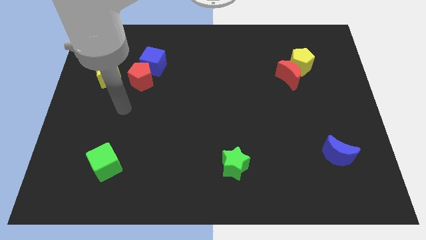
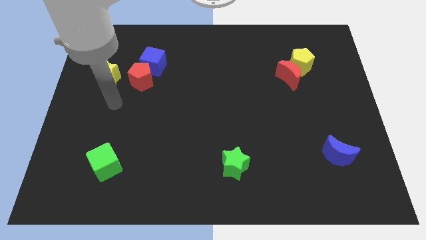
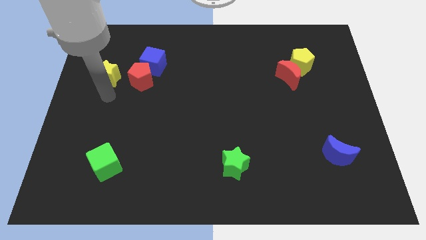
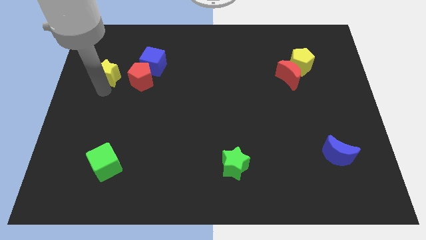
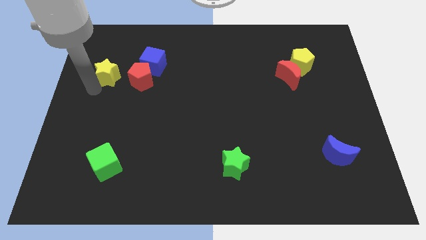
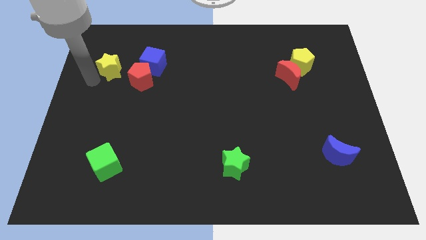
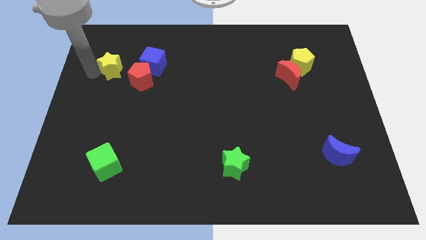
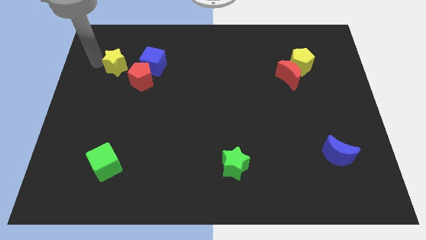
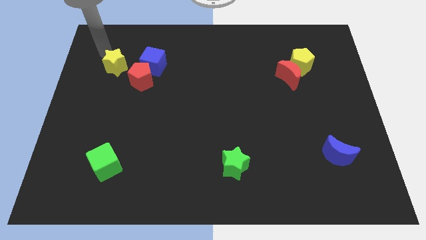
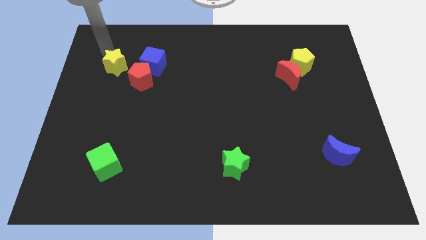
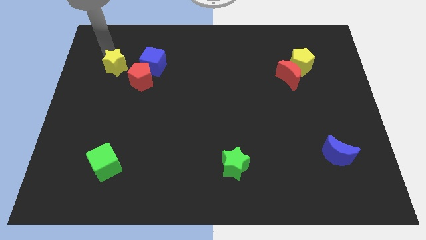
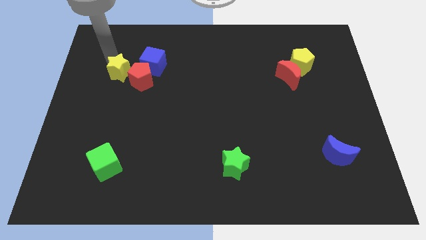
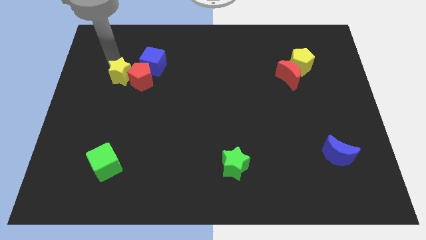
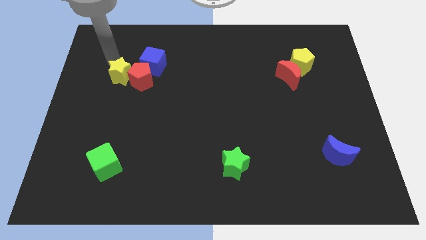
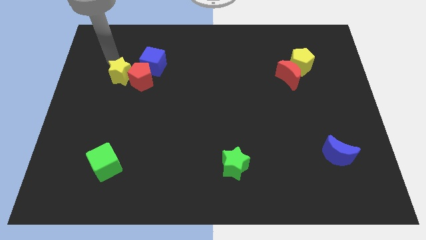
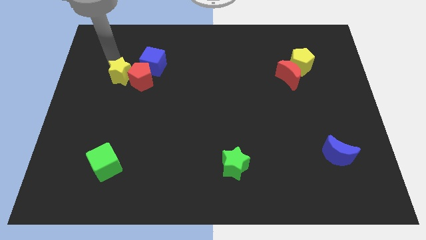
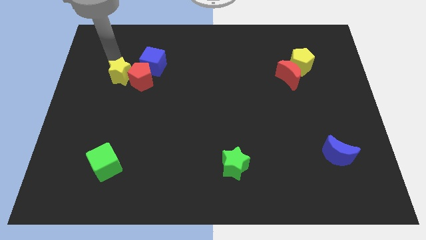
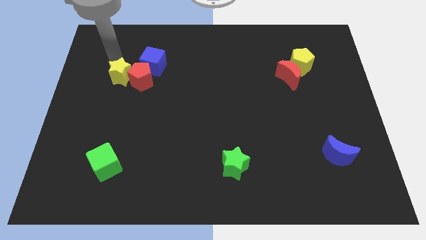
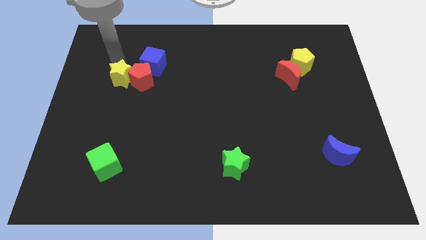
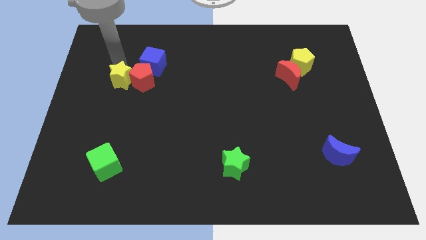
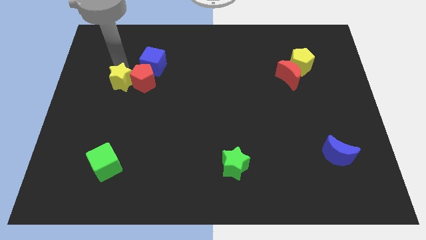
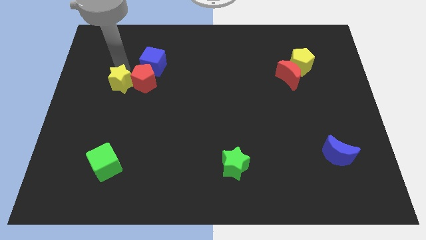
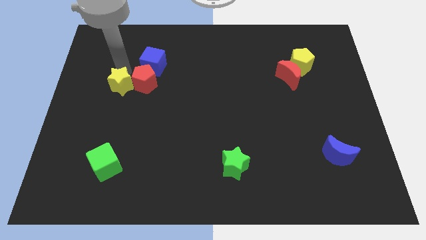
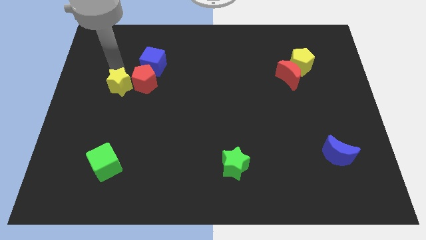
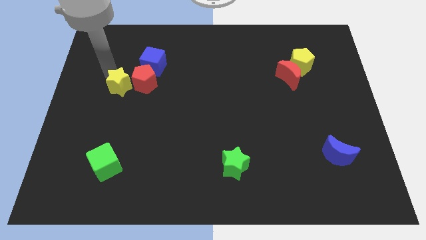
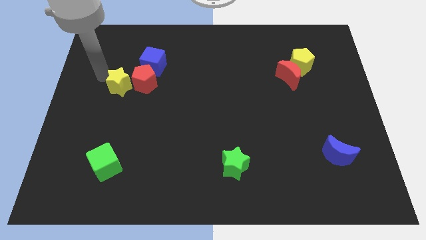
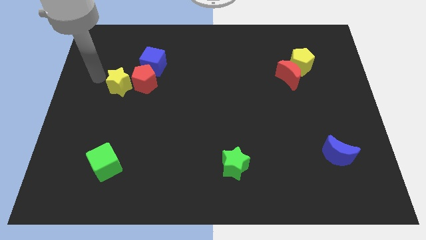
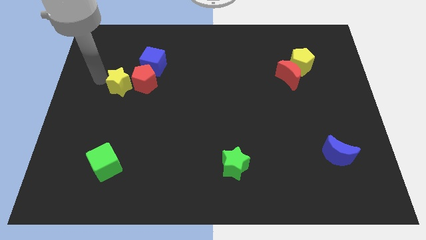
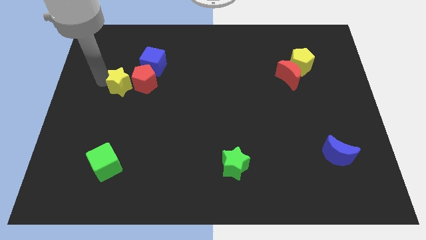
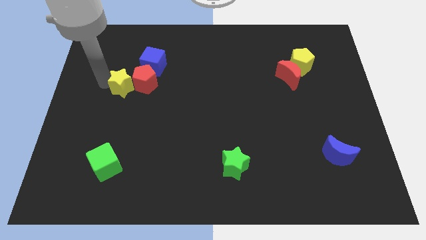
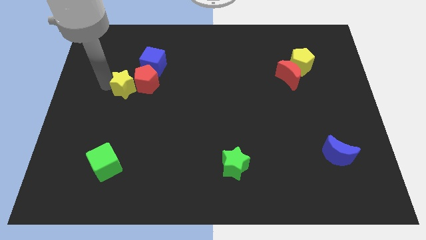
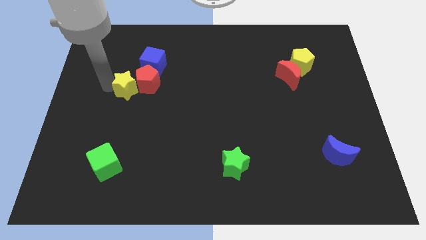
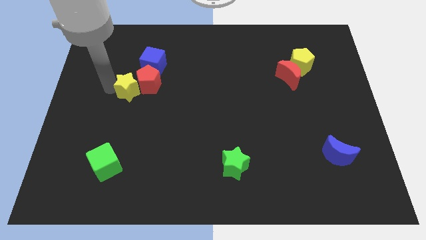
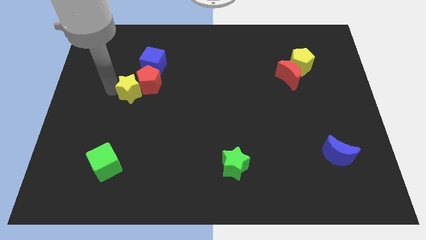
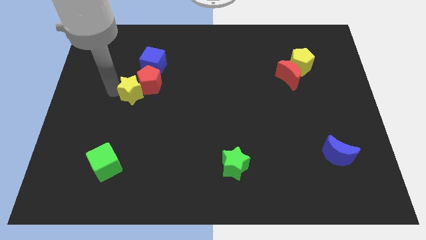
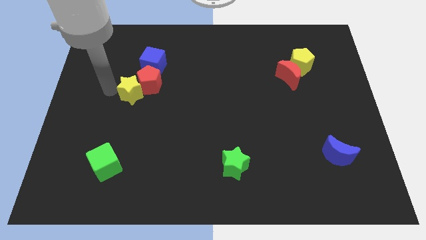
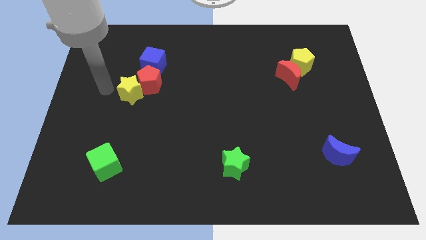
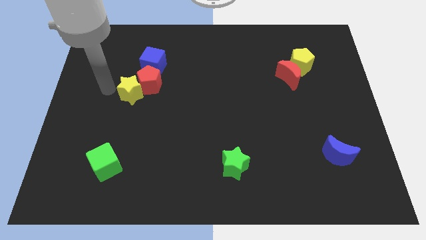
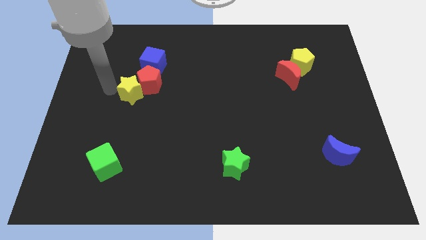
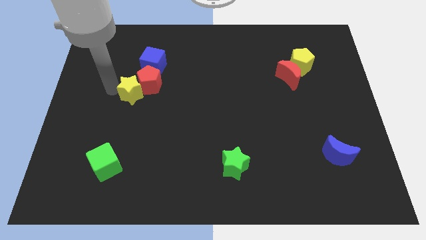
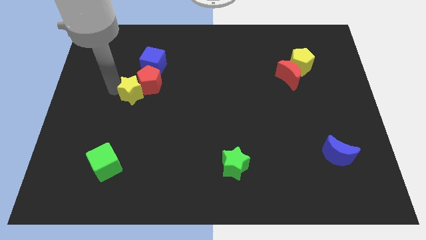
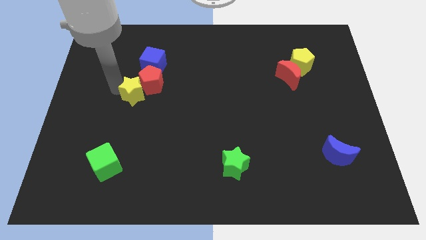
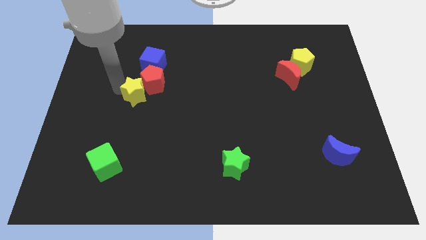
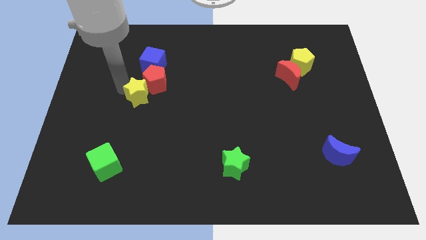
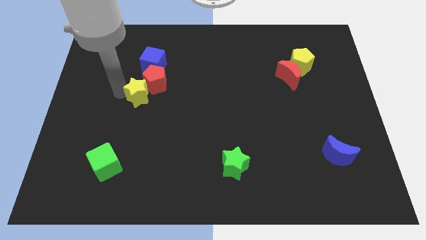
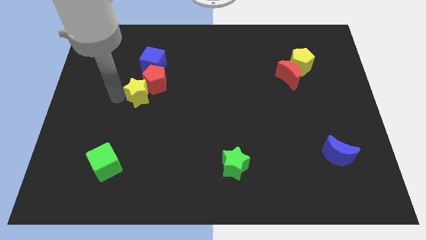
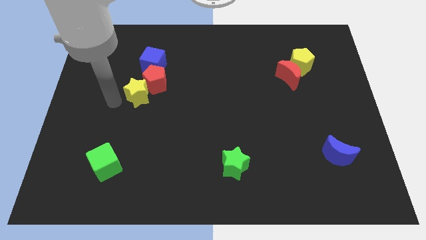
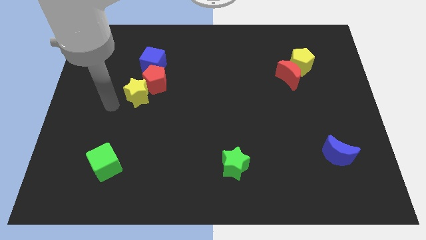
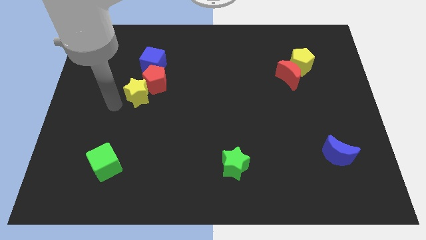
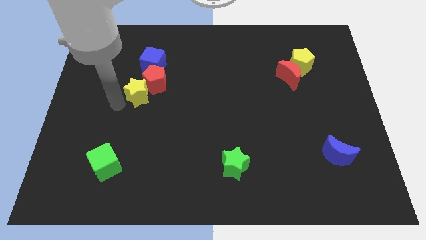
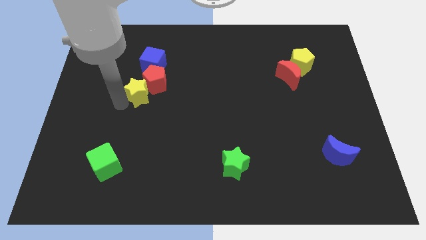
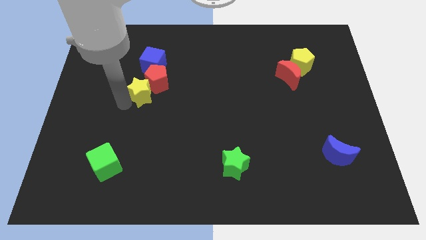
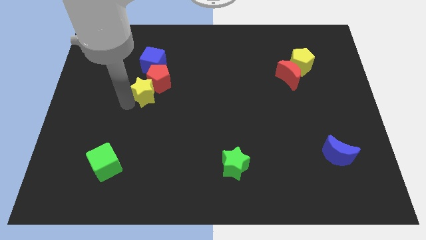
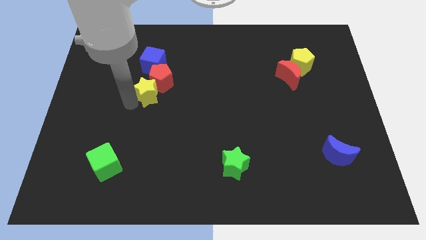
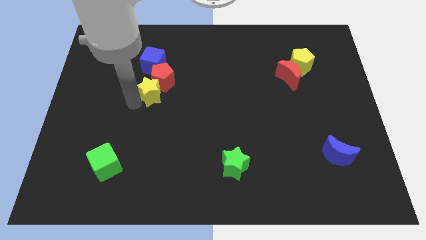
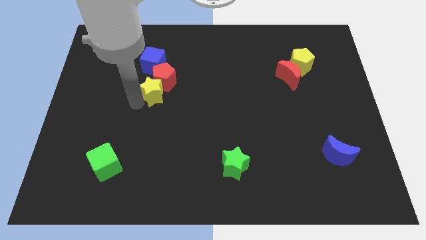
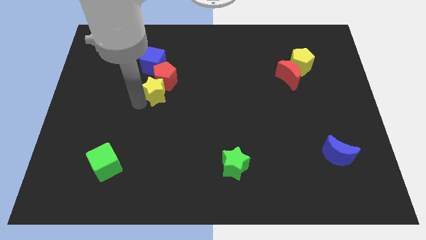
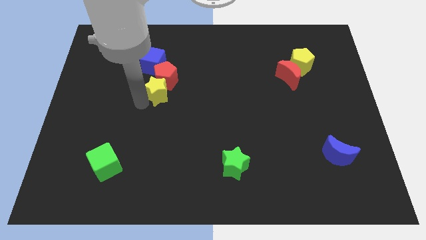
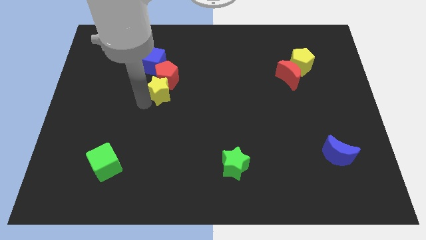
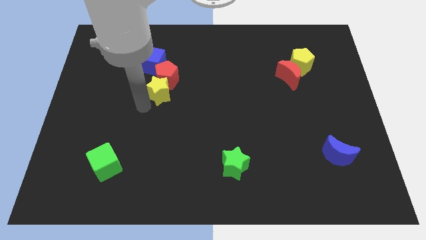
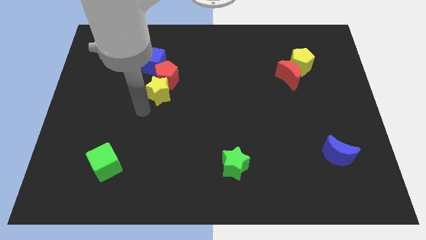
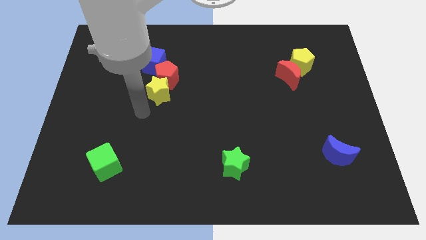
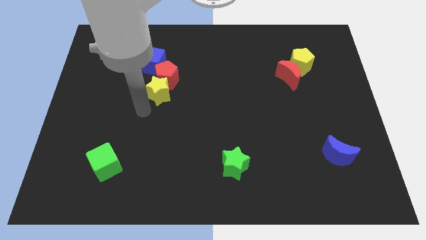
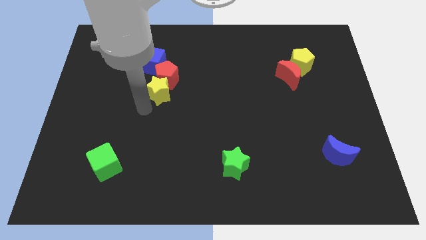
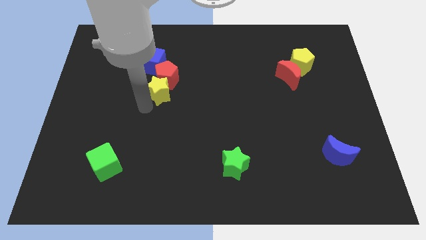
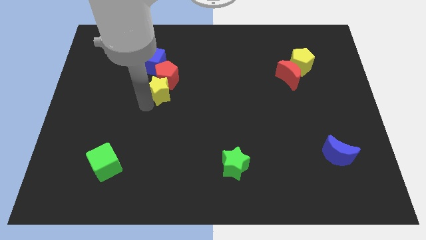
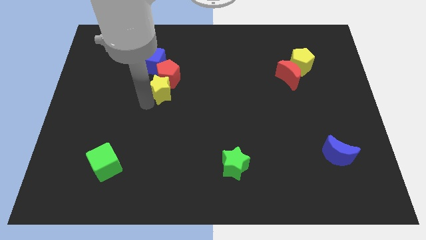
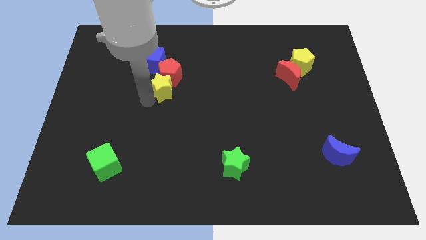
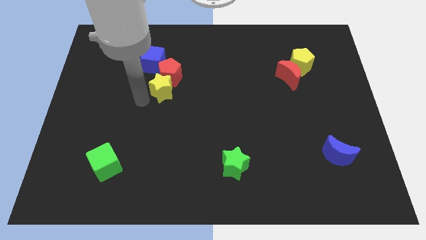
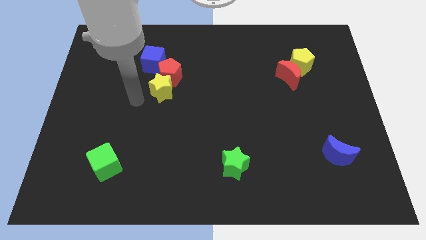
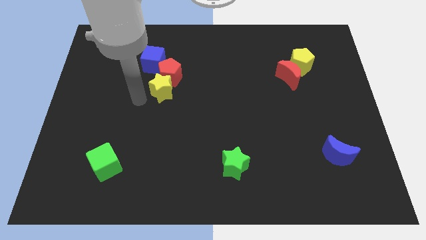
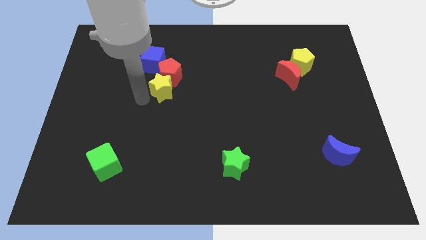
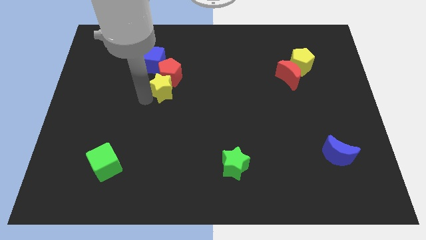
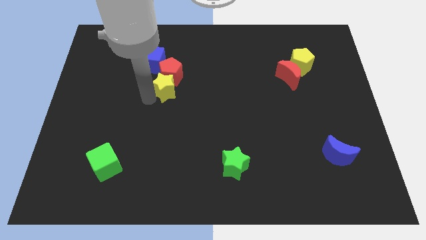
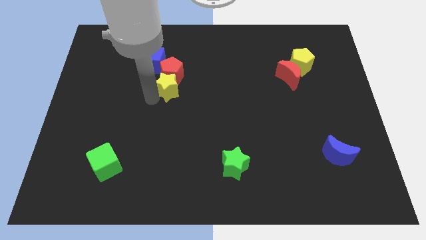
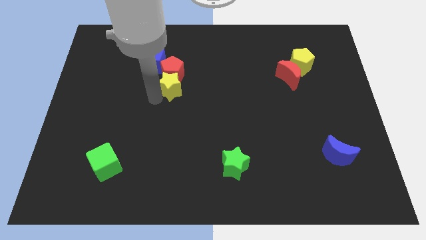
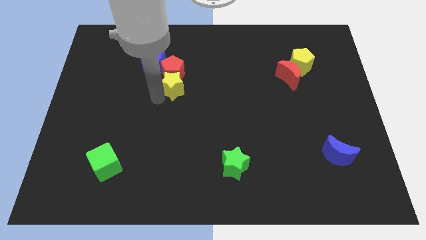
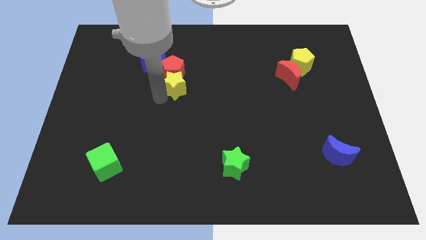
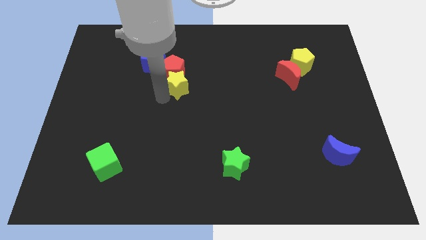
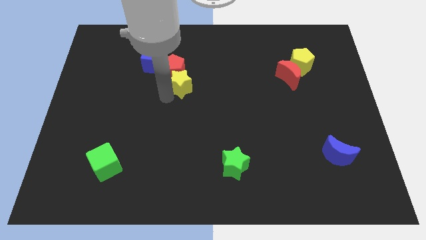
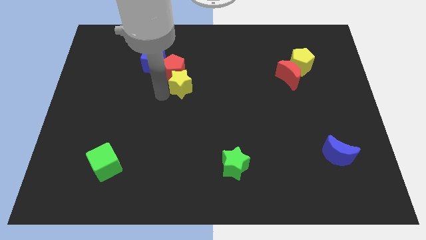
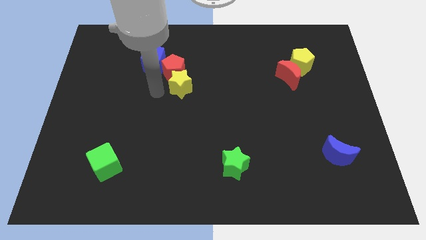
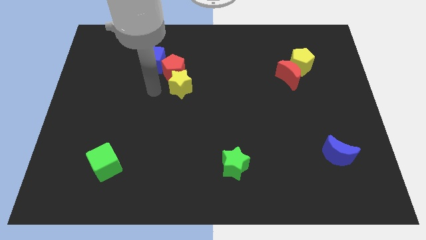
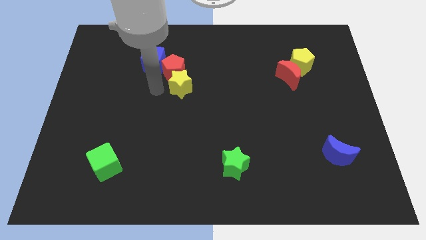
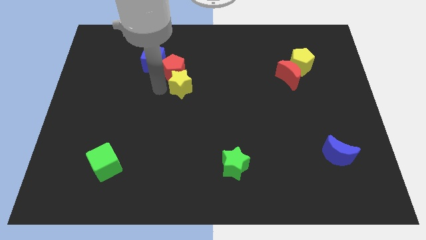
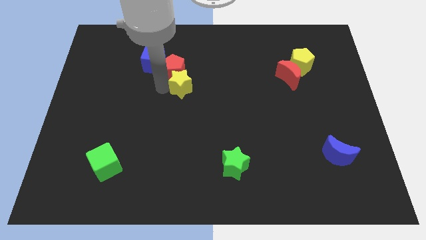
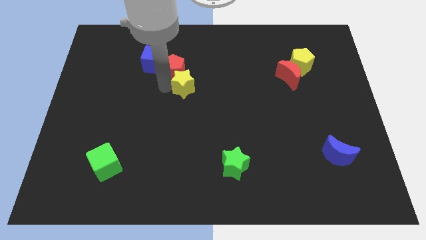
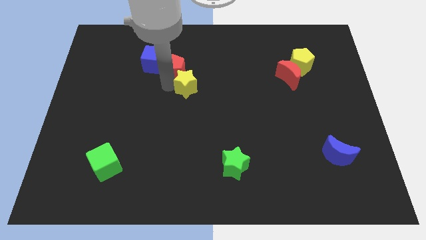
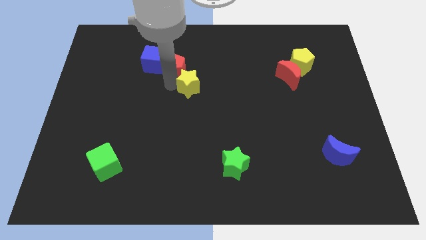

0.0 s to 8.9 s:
move the yellow star right
